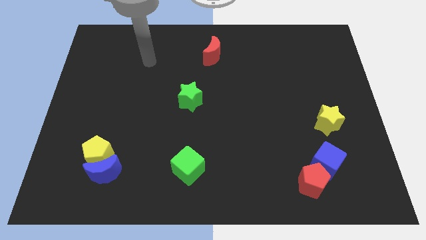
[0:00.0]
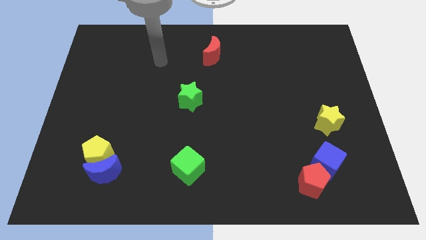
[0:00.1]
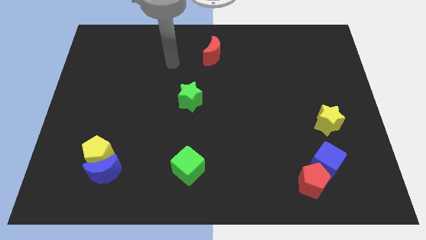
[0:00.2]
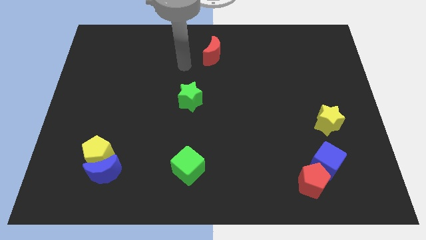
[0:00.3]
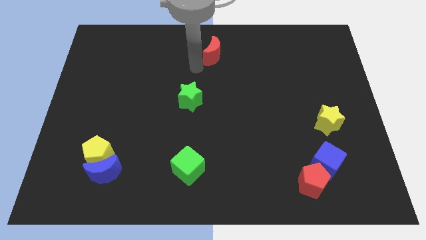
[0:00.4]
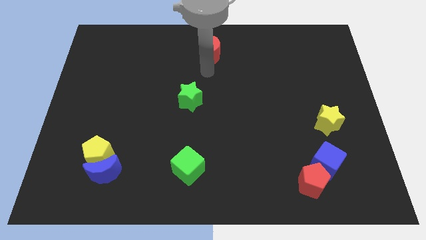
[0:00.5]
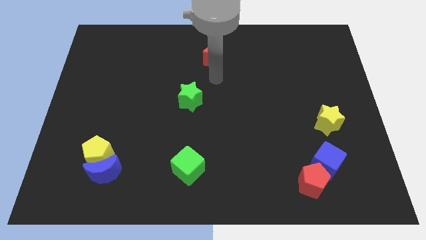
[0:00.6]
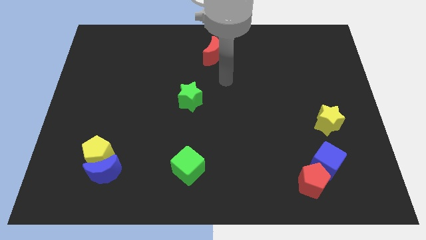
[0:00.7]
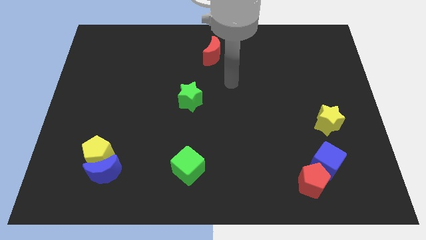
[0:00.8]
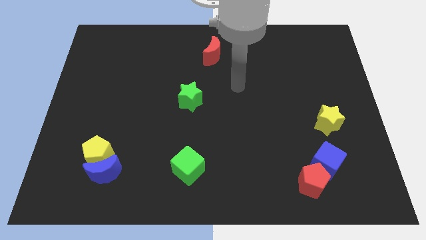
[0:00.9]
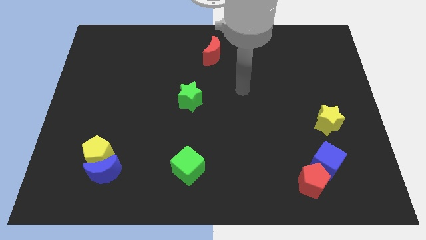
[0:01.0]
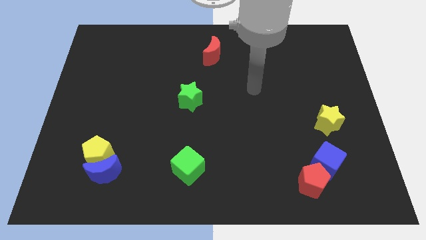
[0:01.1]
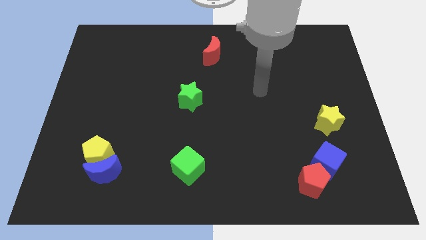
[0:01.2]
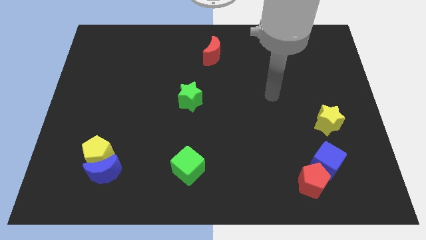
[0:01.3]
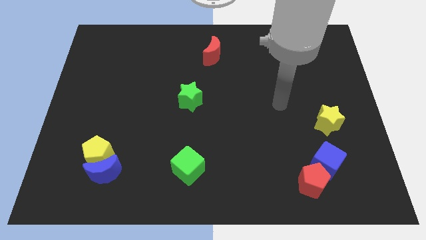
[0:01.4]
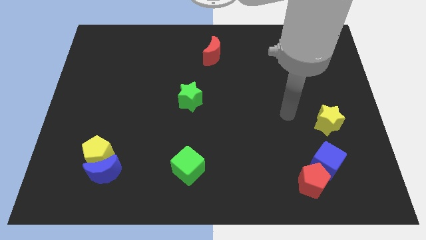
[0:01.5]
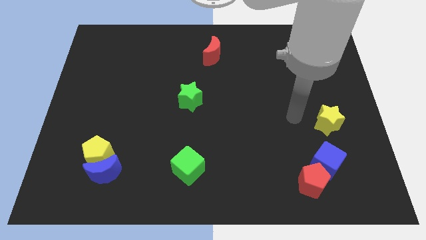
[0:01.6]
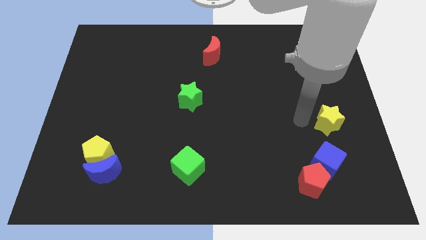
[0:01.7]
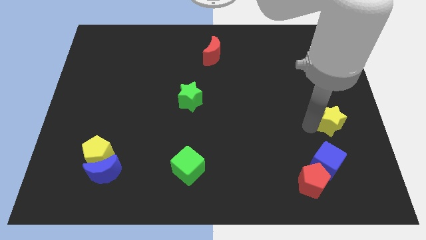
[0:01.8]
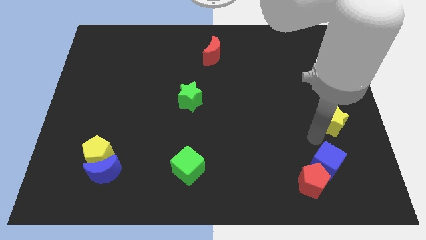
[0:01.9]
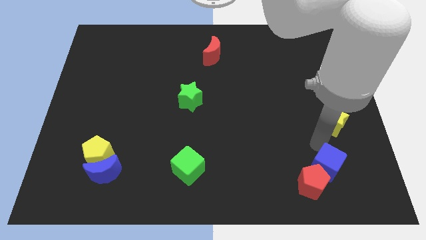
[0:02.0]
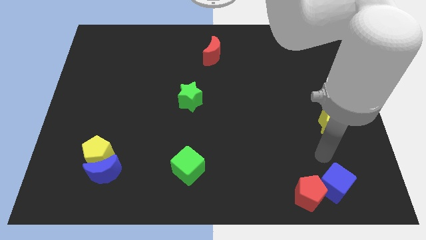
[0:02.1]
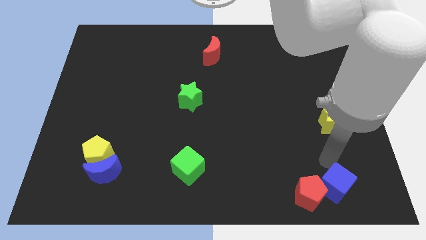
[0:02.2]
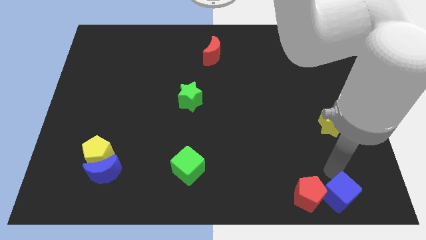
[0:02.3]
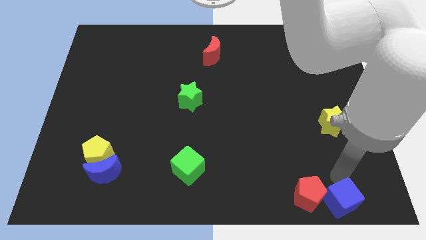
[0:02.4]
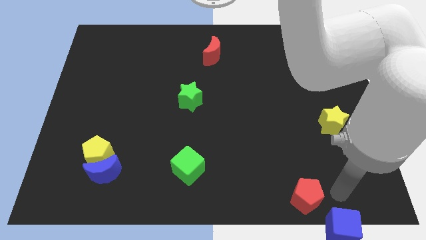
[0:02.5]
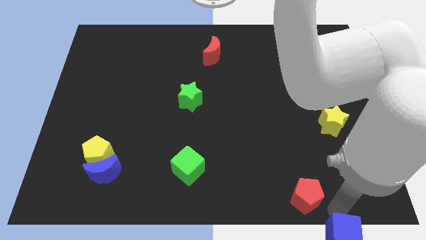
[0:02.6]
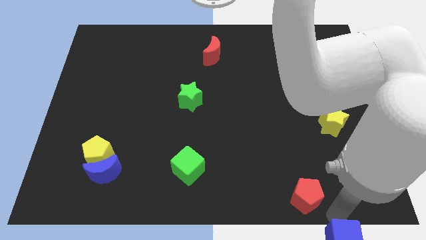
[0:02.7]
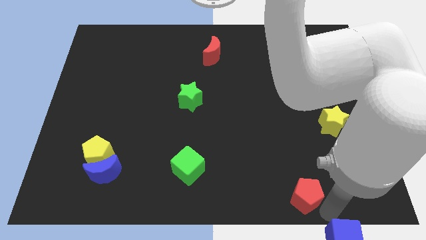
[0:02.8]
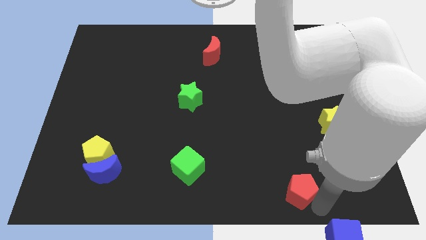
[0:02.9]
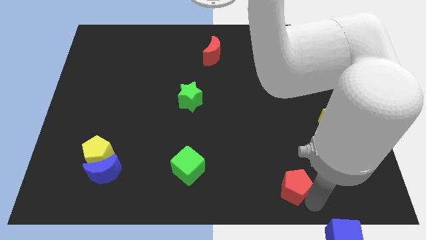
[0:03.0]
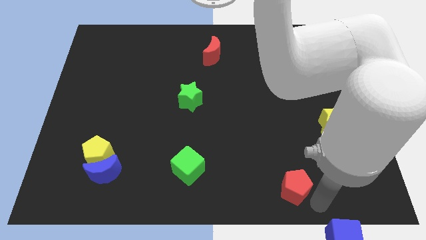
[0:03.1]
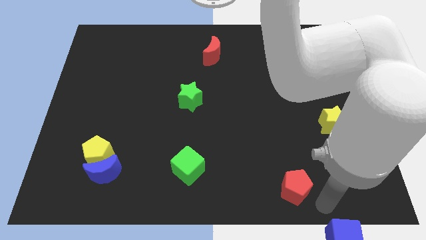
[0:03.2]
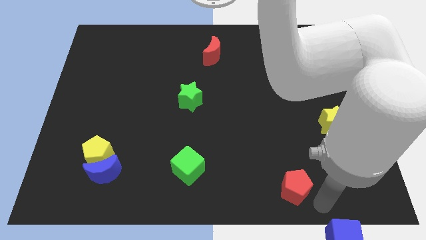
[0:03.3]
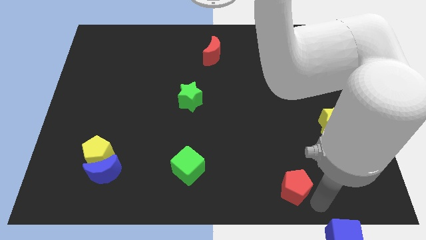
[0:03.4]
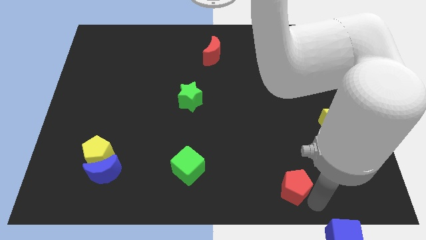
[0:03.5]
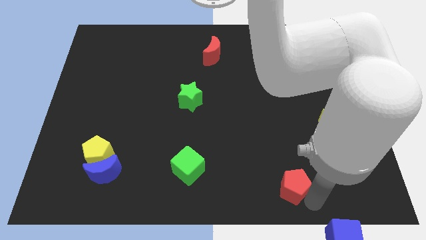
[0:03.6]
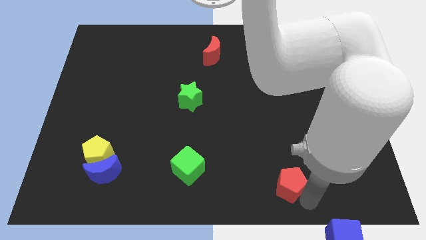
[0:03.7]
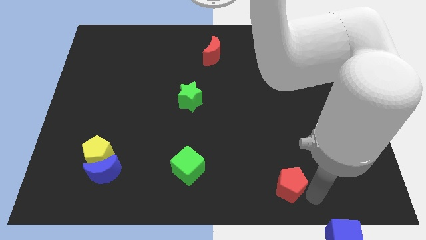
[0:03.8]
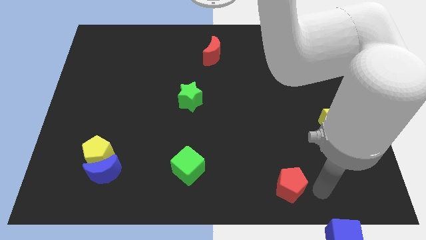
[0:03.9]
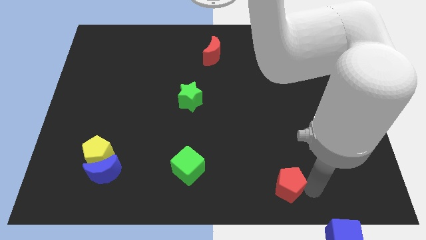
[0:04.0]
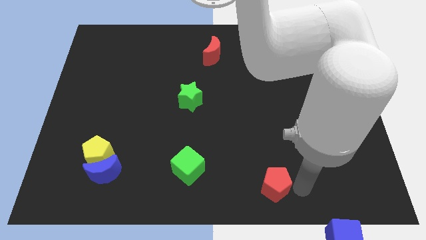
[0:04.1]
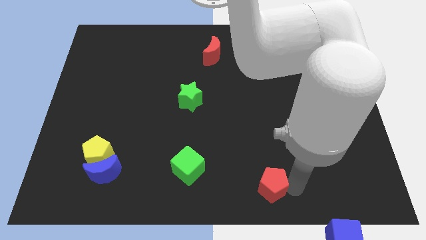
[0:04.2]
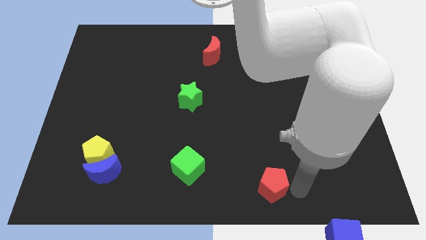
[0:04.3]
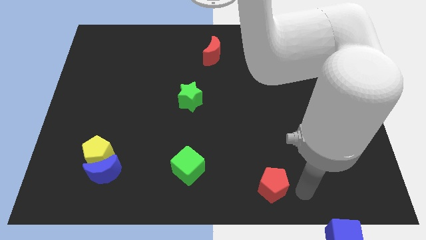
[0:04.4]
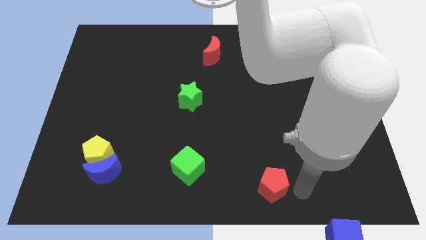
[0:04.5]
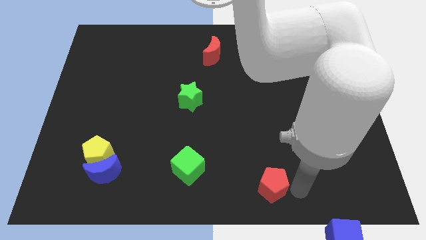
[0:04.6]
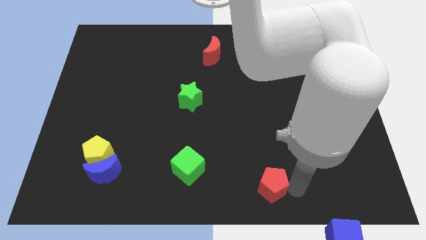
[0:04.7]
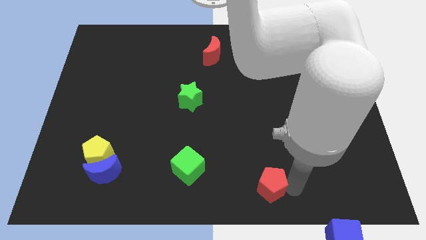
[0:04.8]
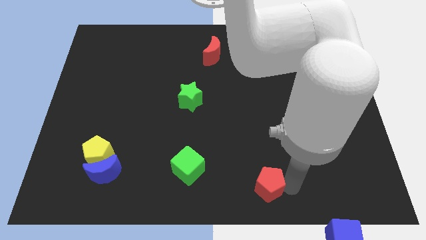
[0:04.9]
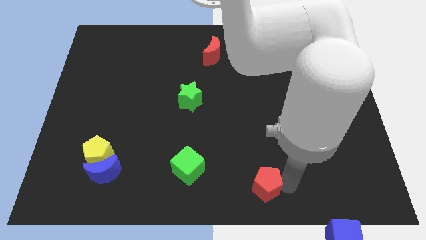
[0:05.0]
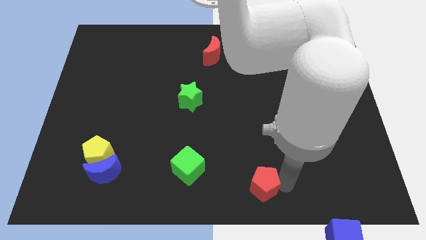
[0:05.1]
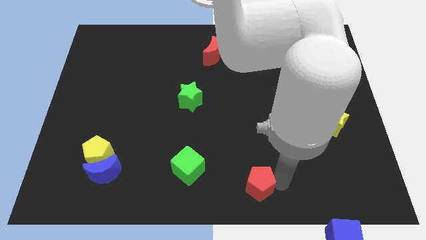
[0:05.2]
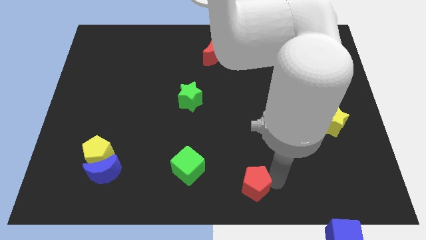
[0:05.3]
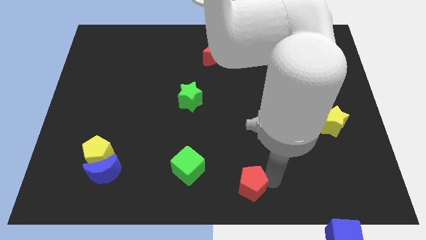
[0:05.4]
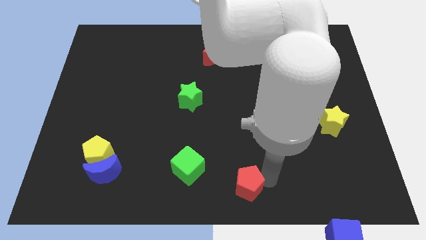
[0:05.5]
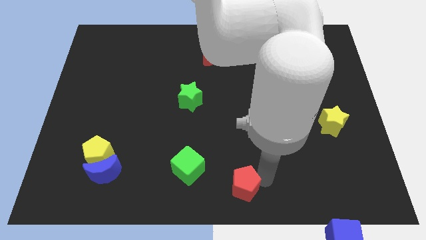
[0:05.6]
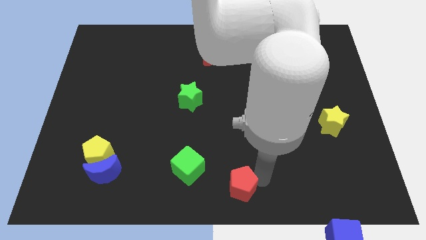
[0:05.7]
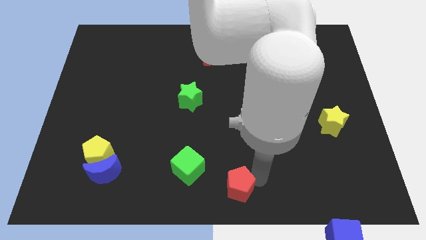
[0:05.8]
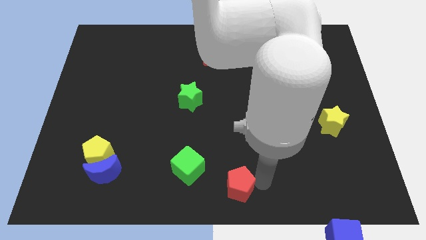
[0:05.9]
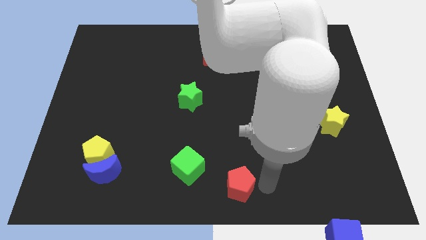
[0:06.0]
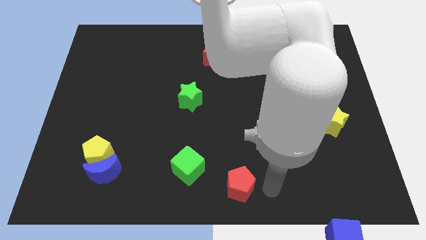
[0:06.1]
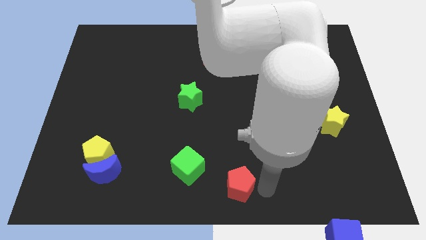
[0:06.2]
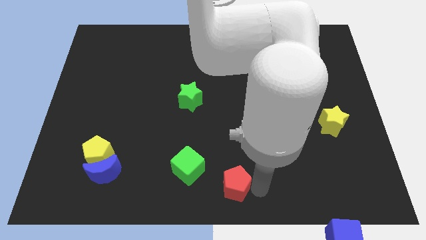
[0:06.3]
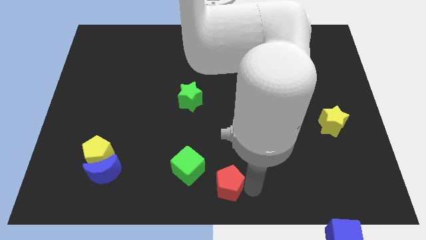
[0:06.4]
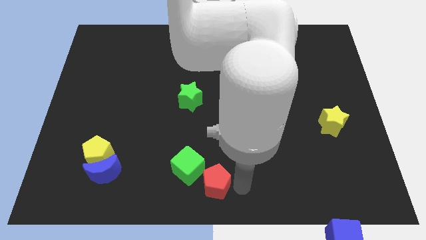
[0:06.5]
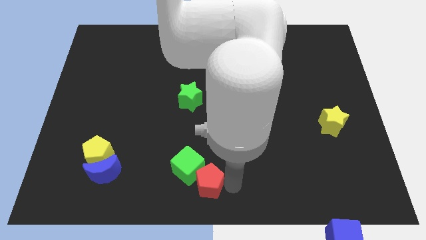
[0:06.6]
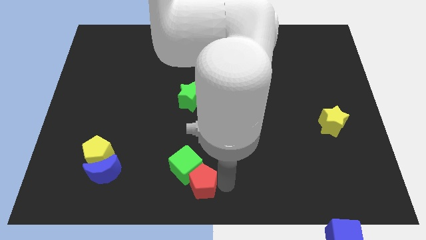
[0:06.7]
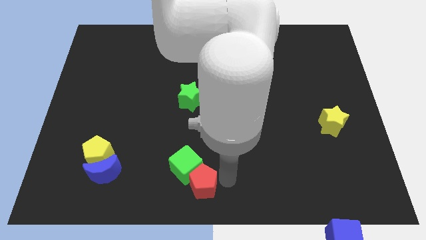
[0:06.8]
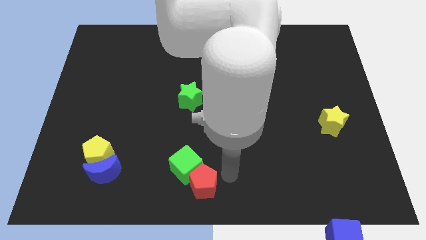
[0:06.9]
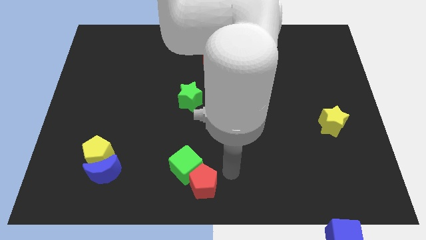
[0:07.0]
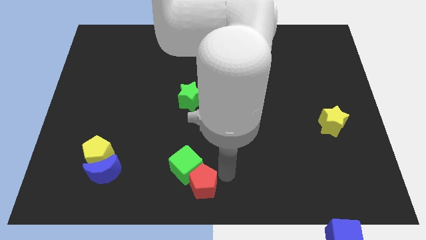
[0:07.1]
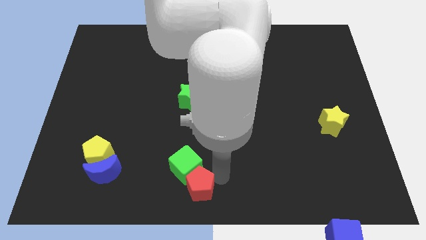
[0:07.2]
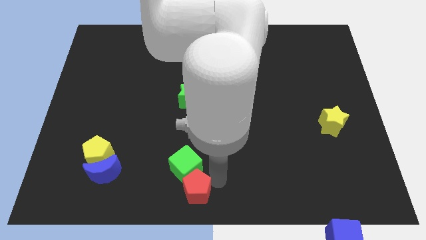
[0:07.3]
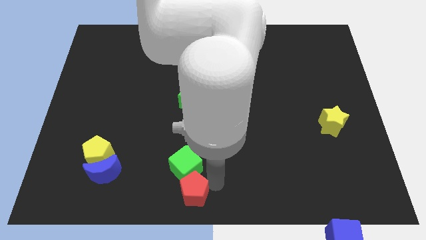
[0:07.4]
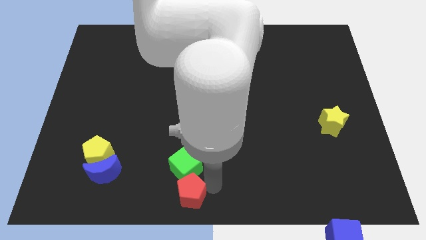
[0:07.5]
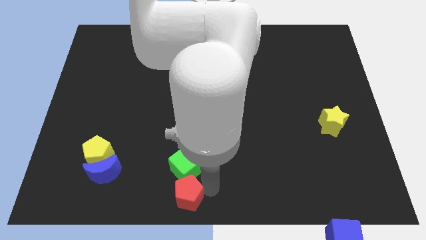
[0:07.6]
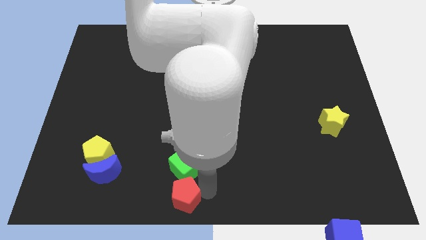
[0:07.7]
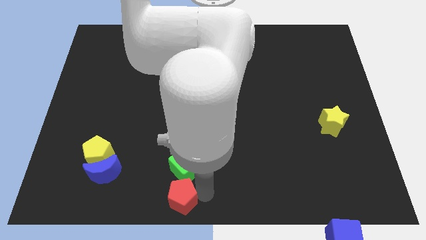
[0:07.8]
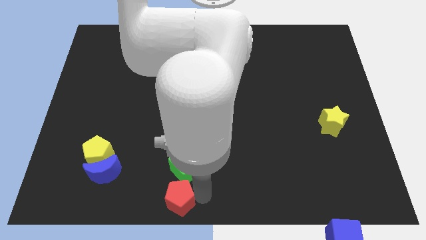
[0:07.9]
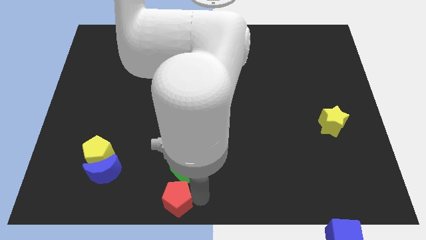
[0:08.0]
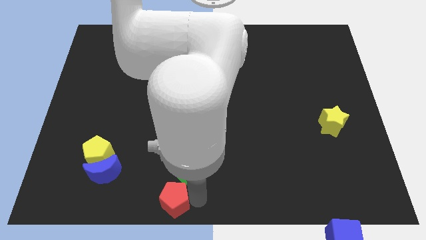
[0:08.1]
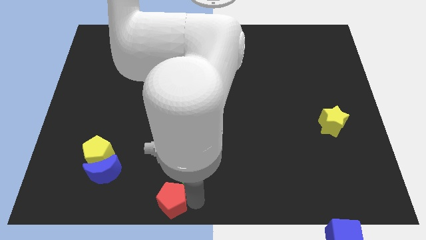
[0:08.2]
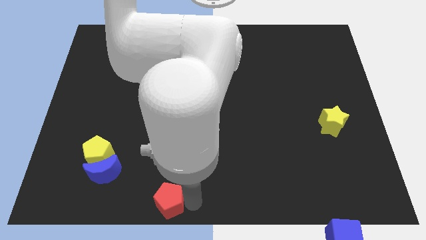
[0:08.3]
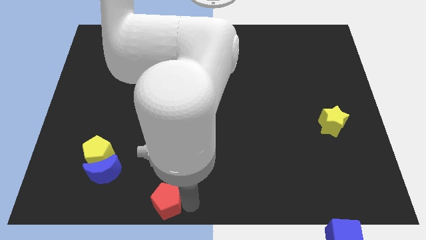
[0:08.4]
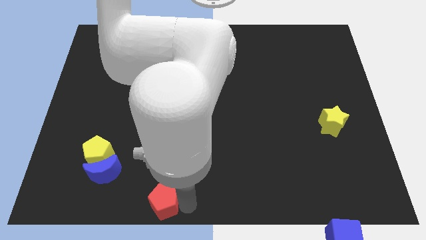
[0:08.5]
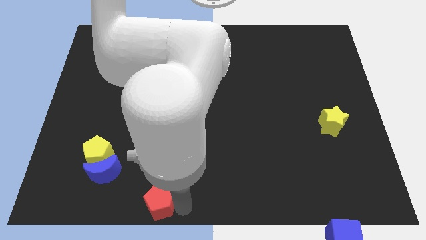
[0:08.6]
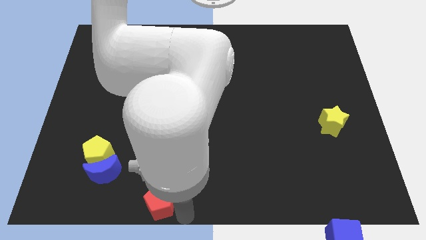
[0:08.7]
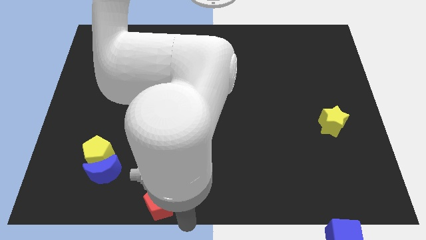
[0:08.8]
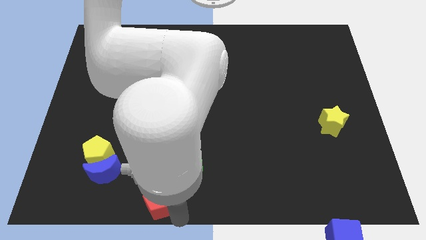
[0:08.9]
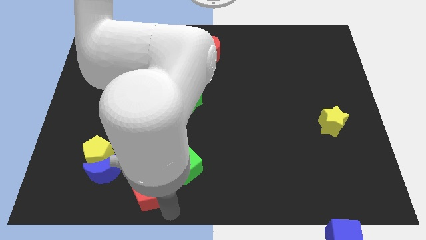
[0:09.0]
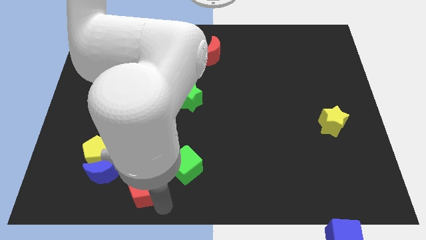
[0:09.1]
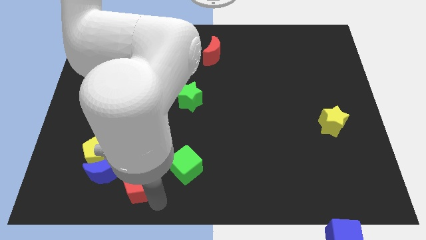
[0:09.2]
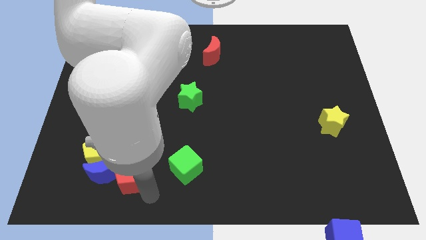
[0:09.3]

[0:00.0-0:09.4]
push the red pentagon towards the blue moon
